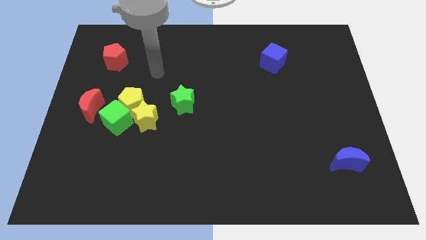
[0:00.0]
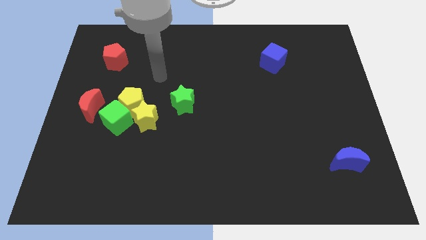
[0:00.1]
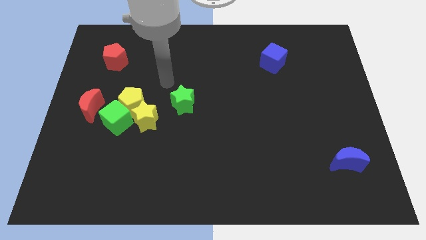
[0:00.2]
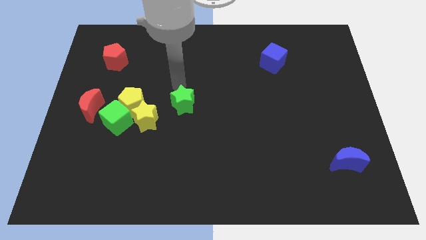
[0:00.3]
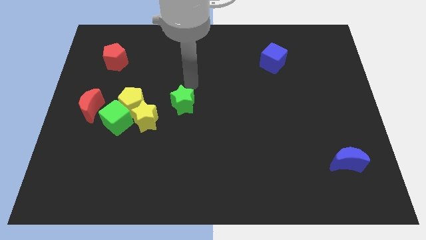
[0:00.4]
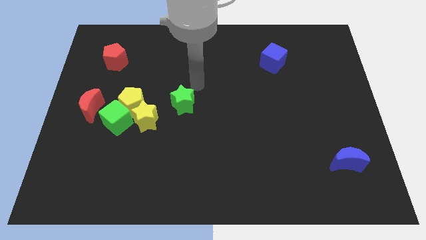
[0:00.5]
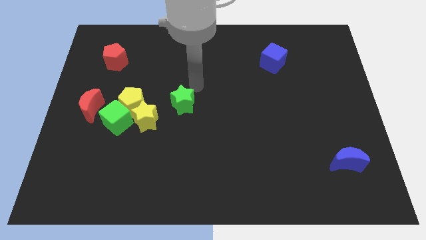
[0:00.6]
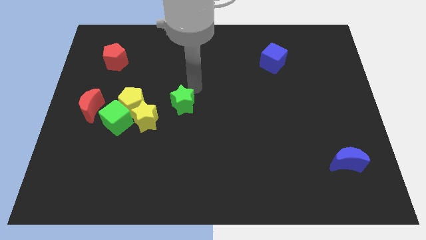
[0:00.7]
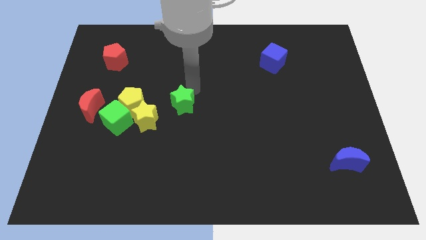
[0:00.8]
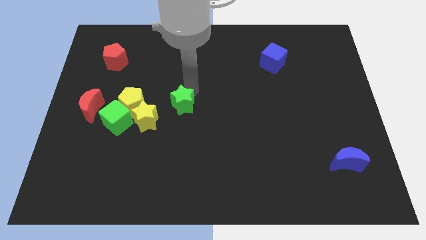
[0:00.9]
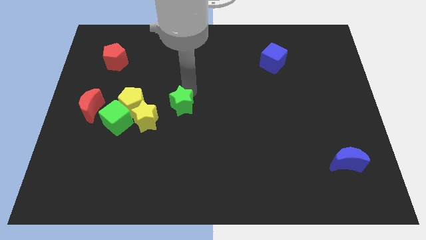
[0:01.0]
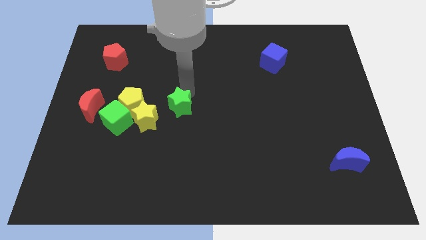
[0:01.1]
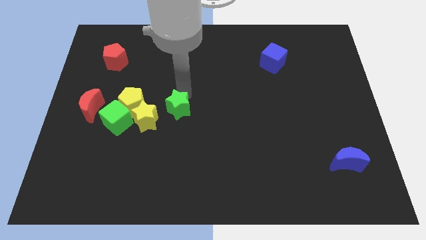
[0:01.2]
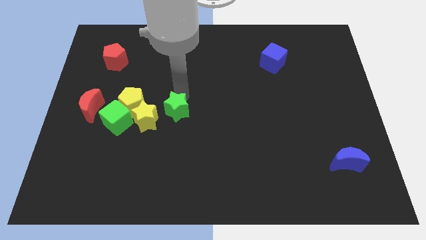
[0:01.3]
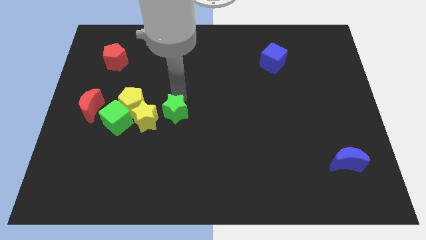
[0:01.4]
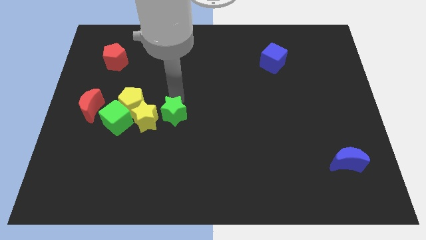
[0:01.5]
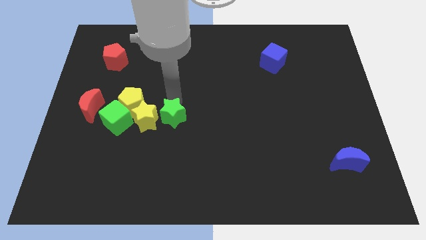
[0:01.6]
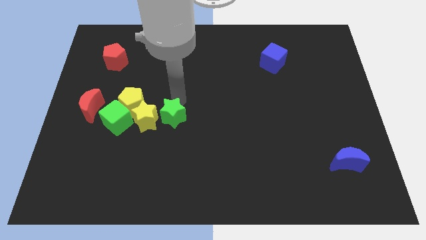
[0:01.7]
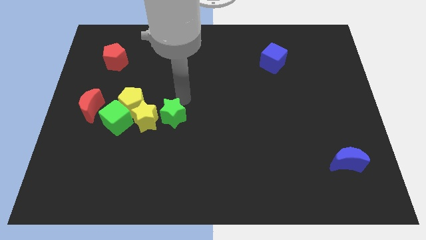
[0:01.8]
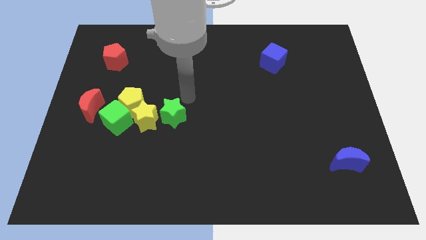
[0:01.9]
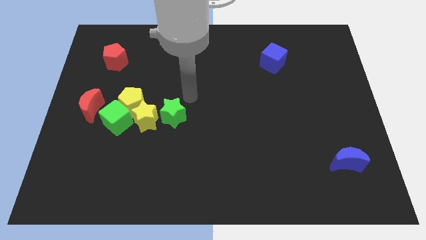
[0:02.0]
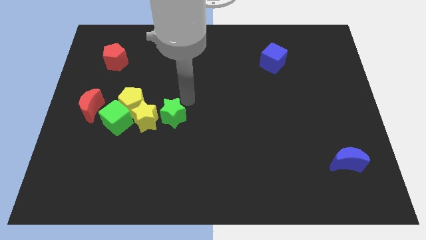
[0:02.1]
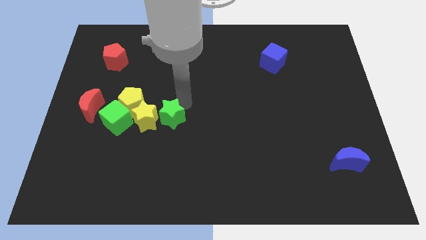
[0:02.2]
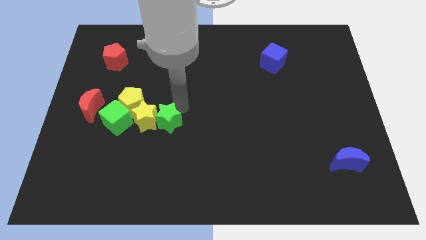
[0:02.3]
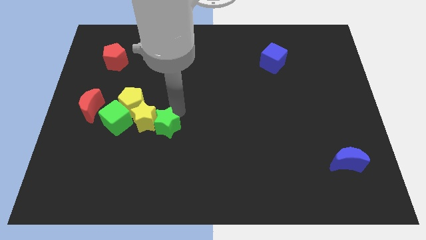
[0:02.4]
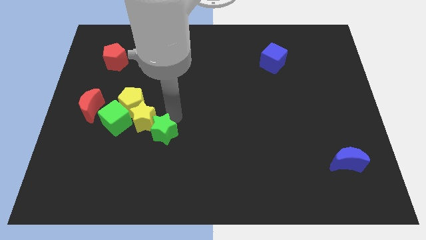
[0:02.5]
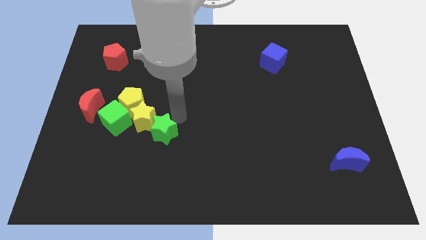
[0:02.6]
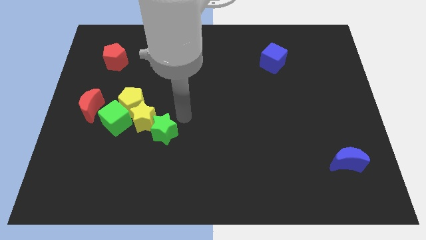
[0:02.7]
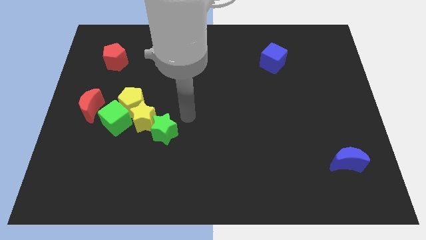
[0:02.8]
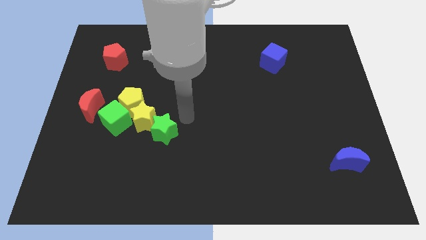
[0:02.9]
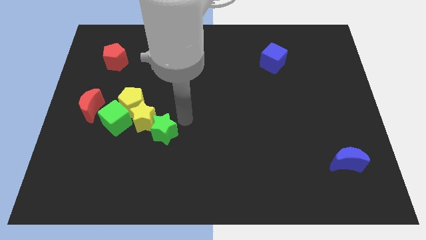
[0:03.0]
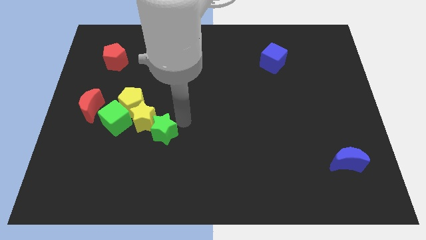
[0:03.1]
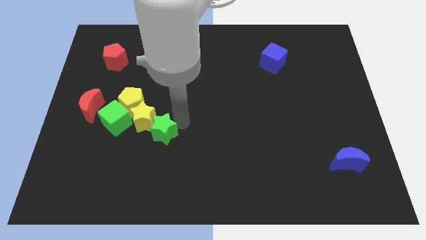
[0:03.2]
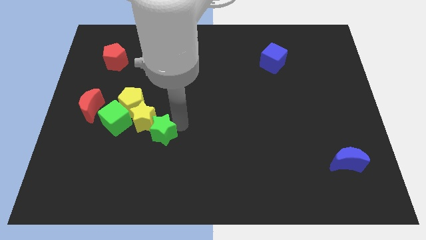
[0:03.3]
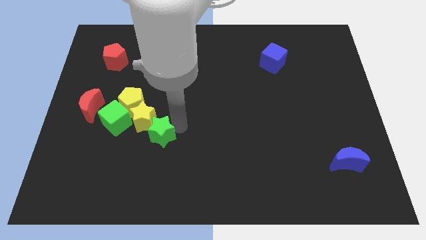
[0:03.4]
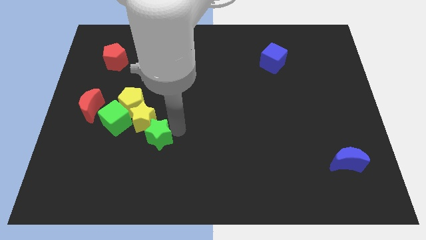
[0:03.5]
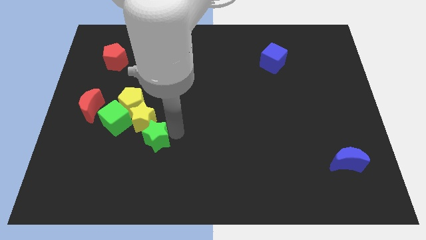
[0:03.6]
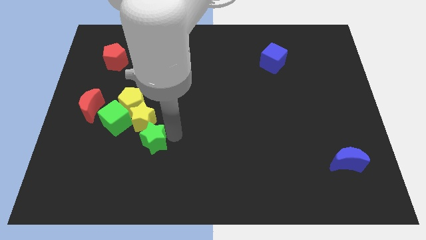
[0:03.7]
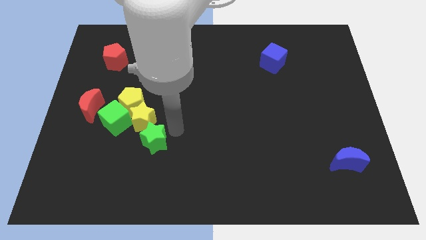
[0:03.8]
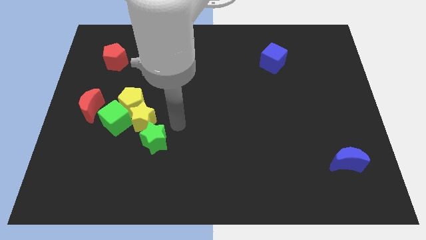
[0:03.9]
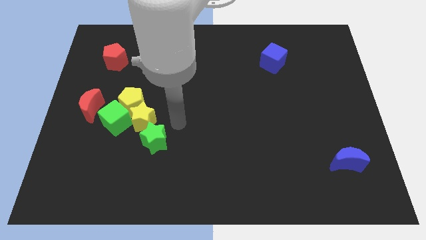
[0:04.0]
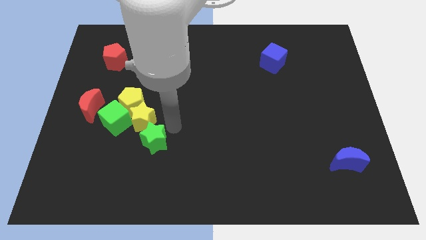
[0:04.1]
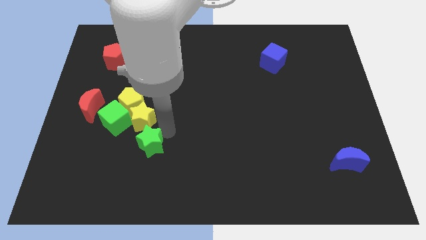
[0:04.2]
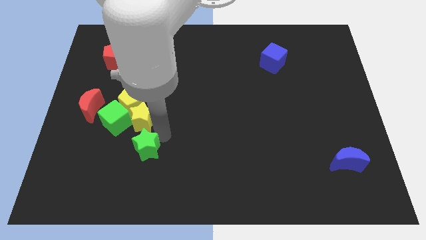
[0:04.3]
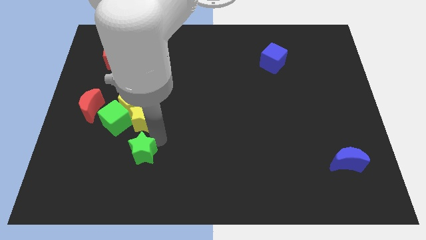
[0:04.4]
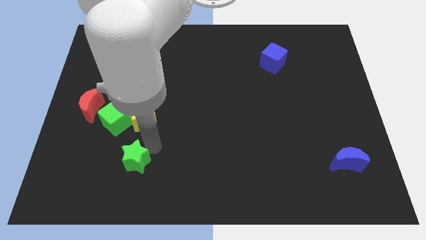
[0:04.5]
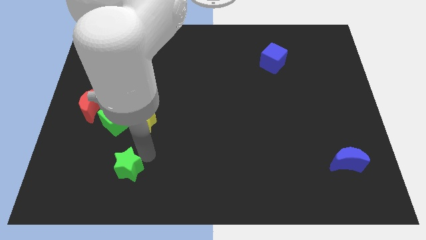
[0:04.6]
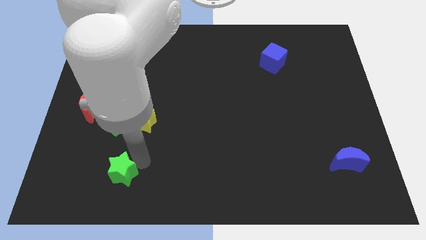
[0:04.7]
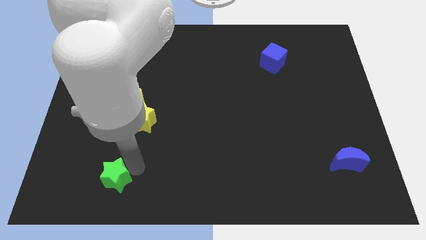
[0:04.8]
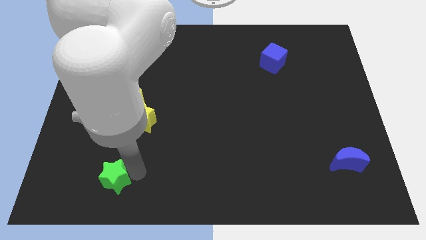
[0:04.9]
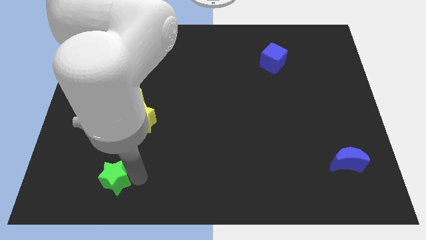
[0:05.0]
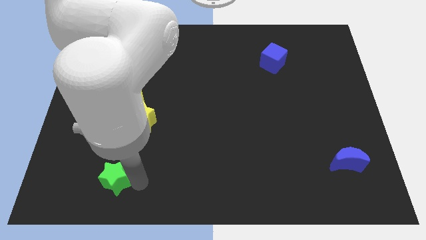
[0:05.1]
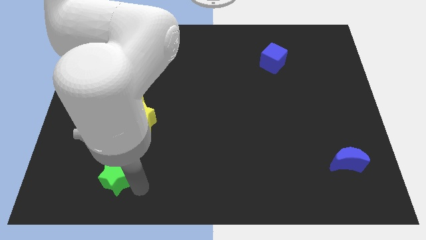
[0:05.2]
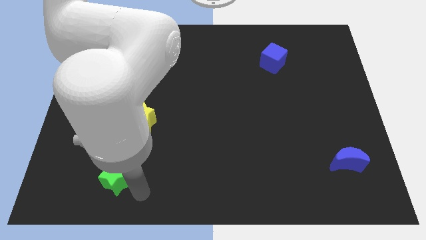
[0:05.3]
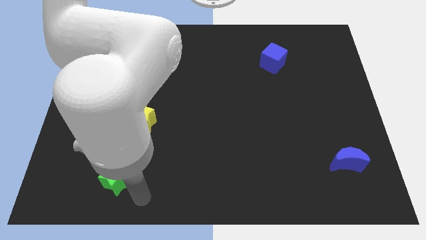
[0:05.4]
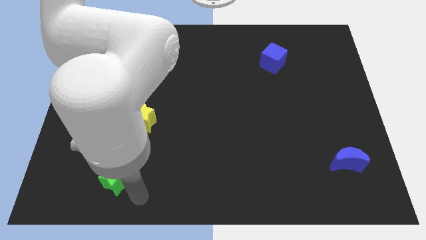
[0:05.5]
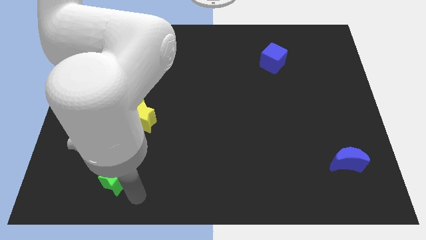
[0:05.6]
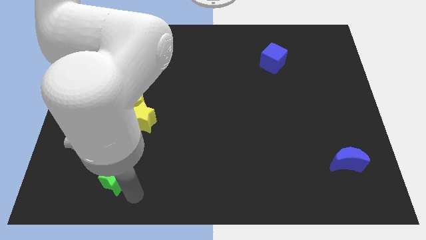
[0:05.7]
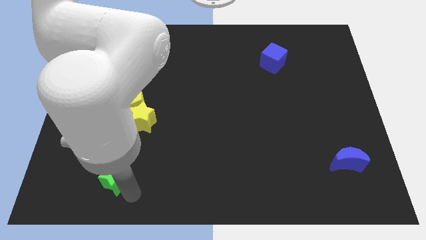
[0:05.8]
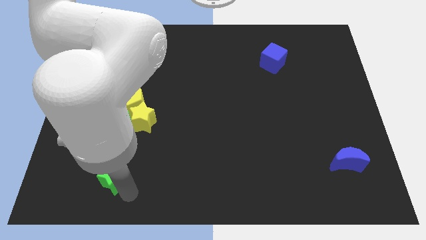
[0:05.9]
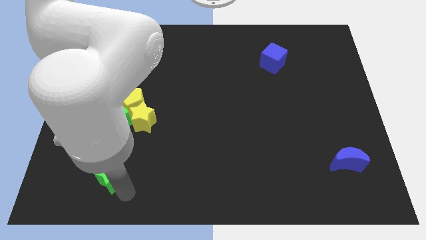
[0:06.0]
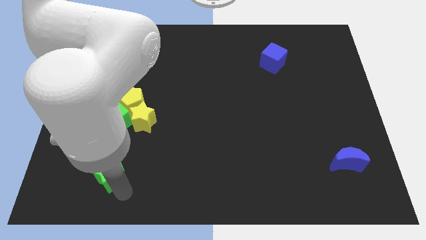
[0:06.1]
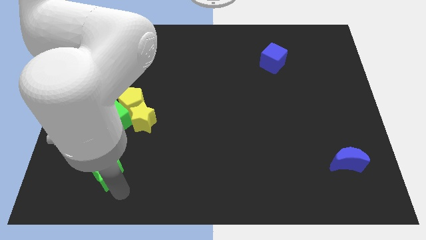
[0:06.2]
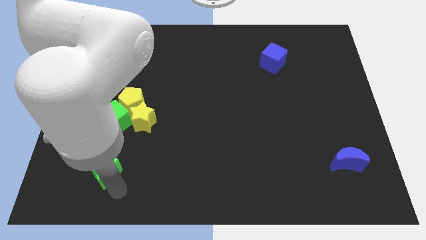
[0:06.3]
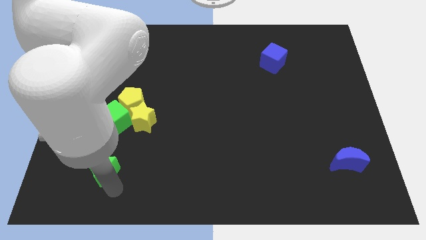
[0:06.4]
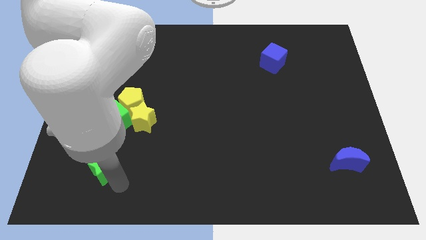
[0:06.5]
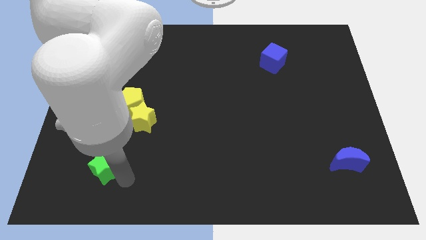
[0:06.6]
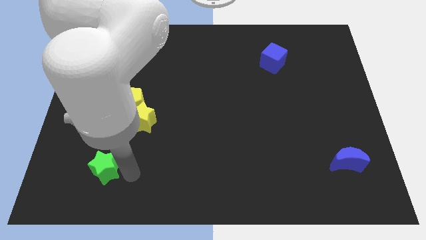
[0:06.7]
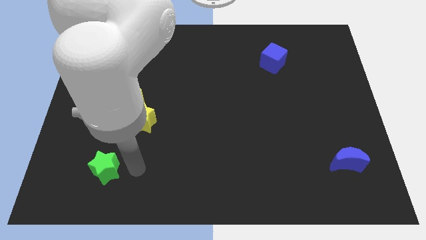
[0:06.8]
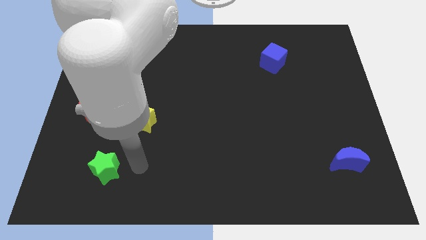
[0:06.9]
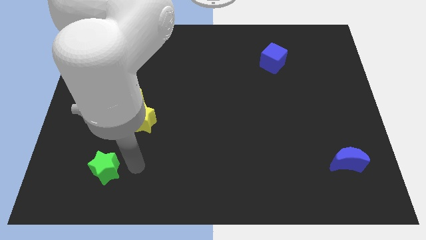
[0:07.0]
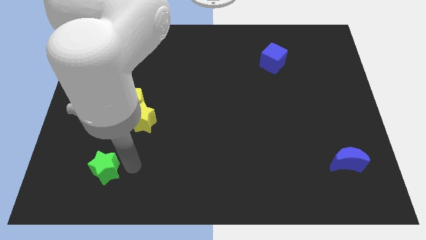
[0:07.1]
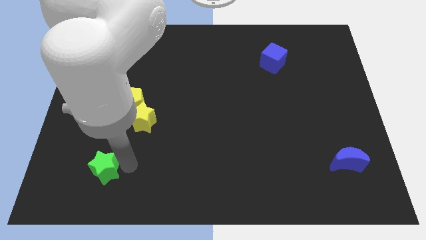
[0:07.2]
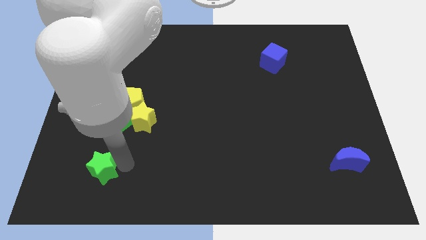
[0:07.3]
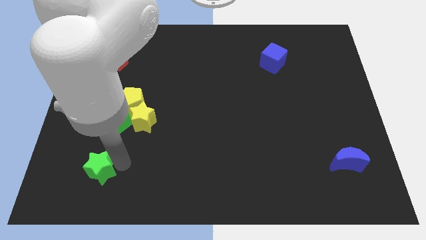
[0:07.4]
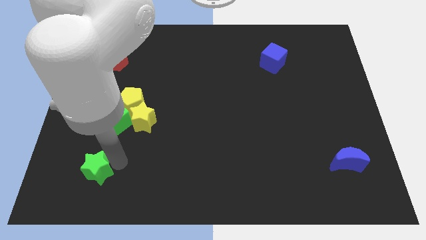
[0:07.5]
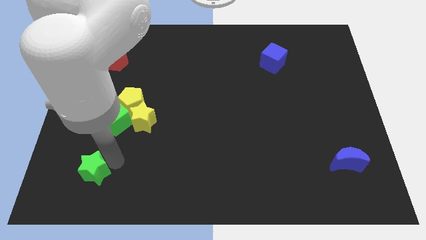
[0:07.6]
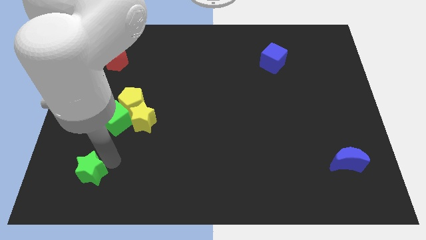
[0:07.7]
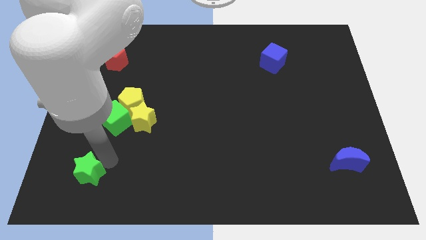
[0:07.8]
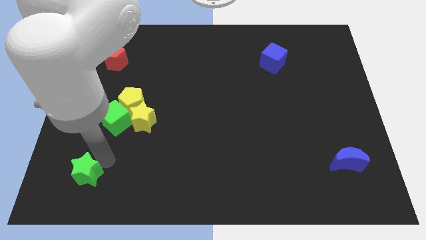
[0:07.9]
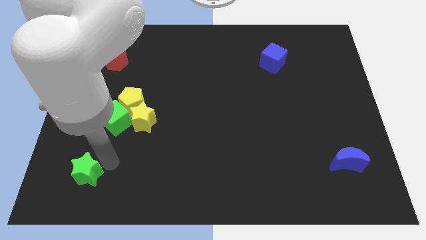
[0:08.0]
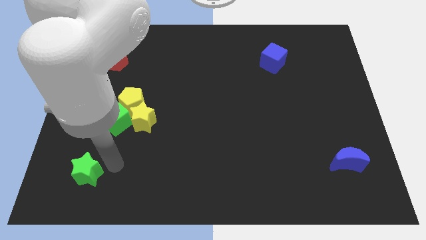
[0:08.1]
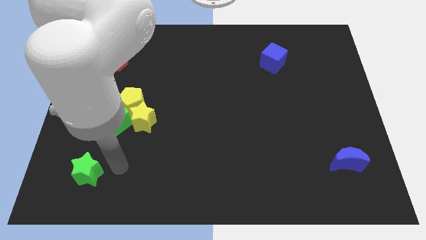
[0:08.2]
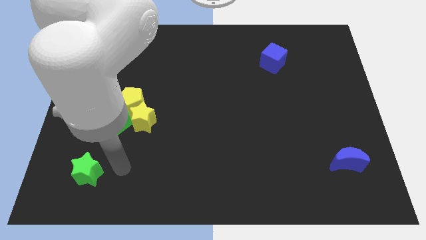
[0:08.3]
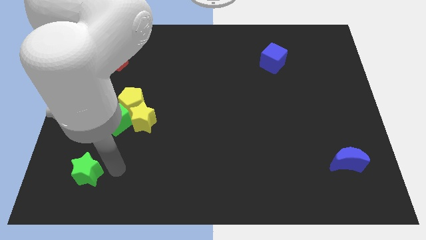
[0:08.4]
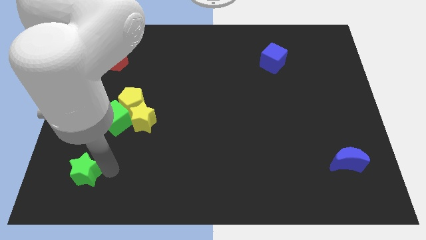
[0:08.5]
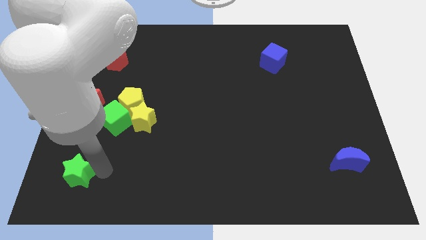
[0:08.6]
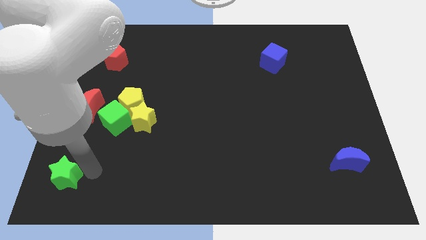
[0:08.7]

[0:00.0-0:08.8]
slide the green star to the bottom left corner
